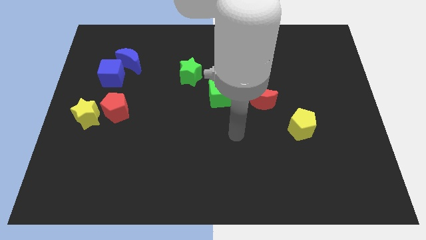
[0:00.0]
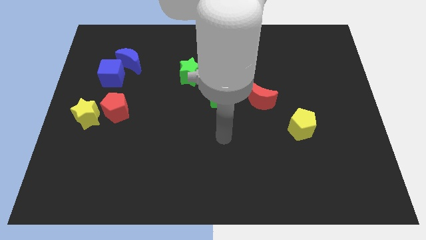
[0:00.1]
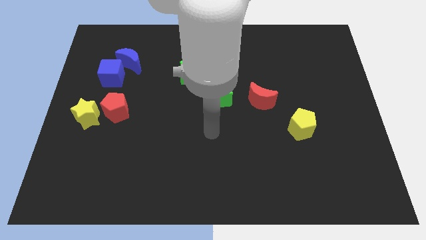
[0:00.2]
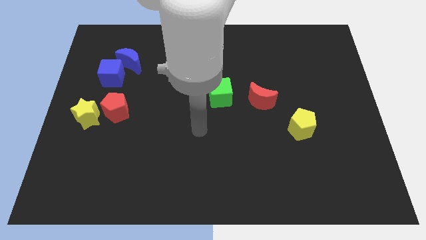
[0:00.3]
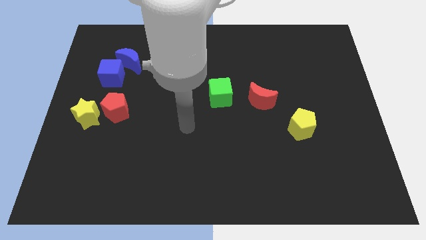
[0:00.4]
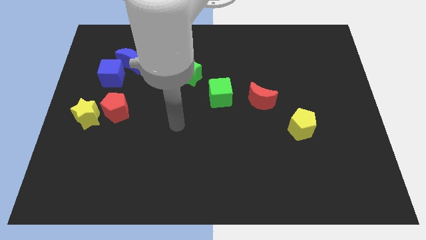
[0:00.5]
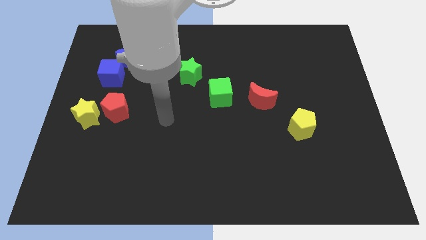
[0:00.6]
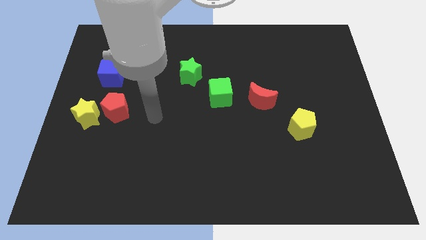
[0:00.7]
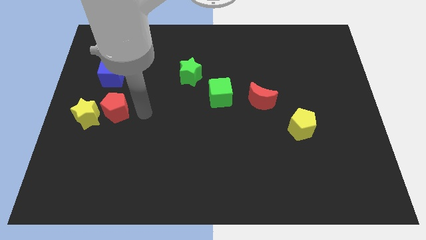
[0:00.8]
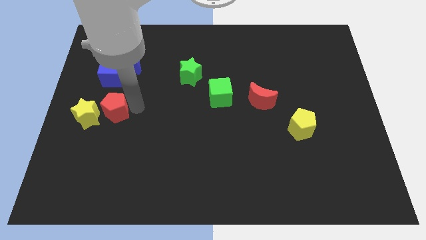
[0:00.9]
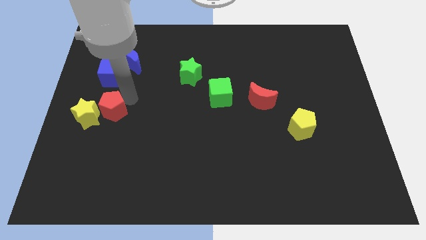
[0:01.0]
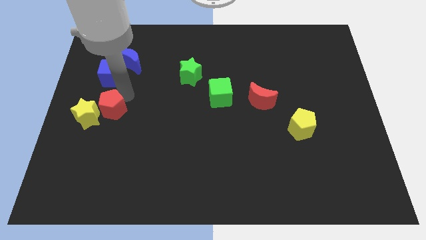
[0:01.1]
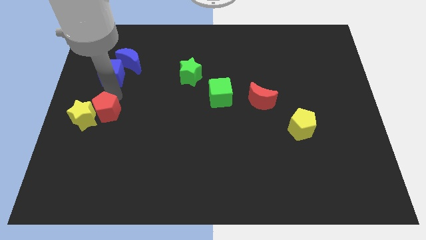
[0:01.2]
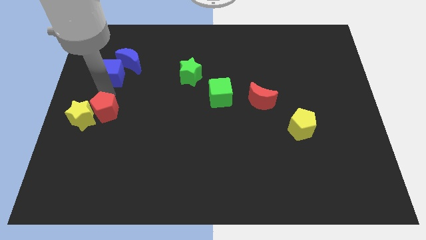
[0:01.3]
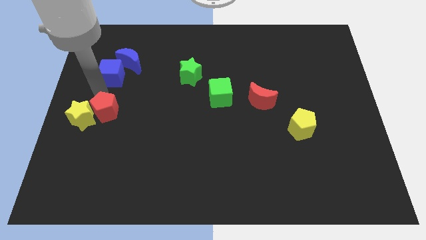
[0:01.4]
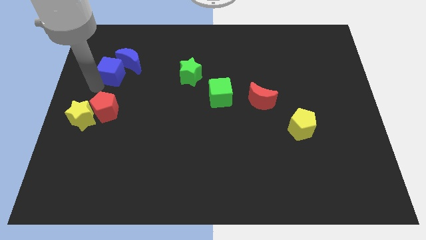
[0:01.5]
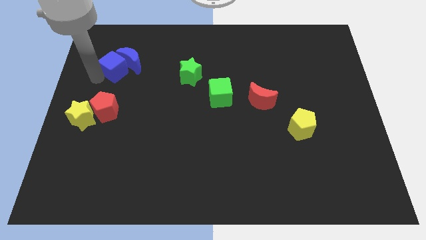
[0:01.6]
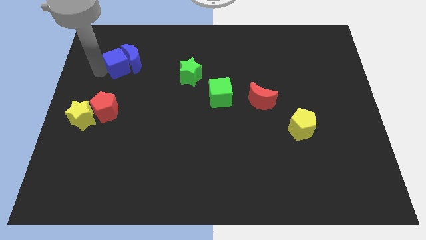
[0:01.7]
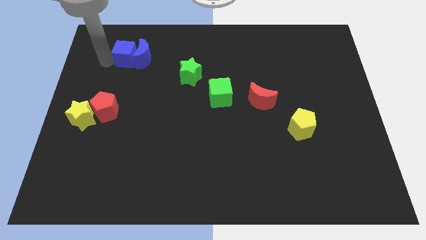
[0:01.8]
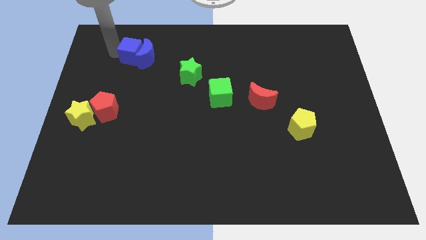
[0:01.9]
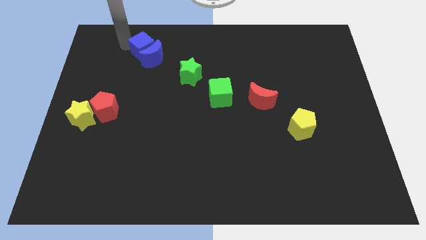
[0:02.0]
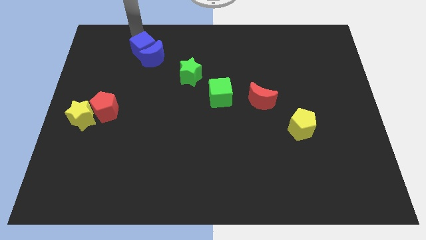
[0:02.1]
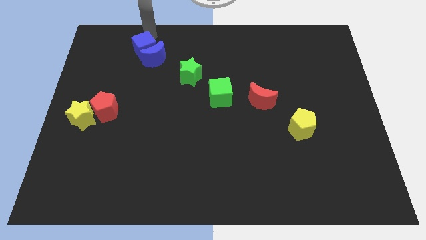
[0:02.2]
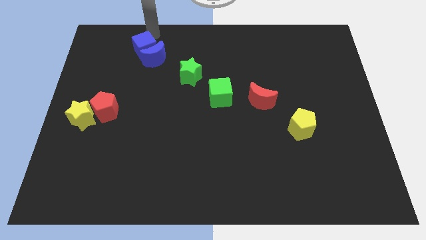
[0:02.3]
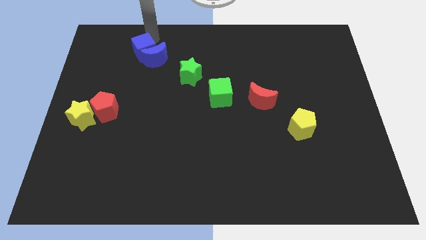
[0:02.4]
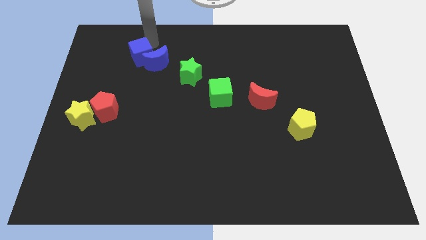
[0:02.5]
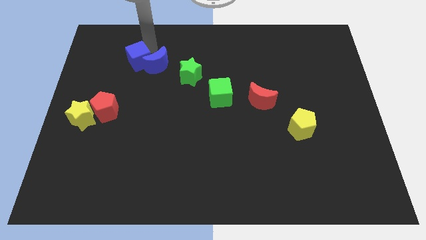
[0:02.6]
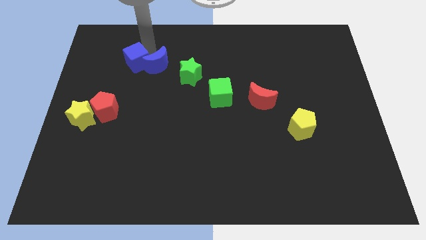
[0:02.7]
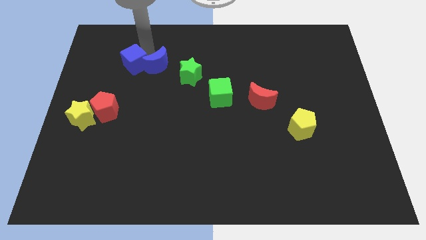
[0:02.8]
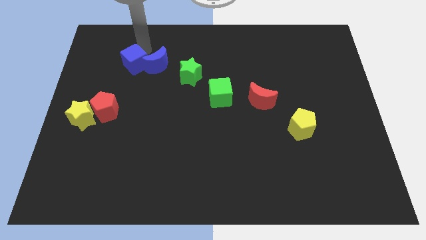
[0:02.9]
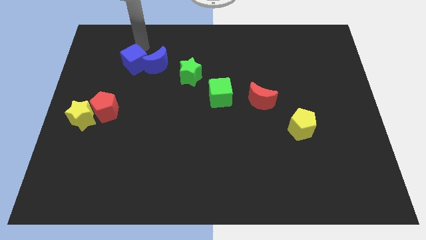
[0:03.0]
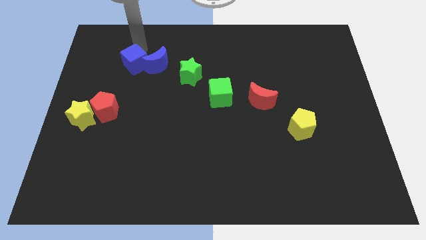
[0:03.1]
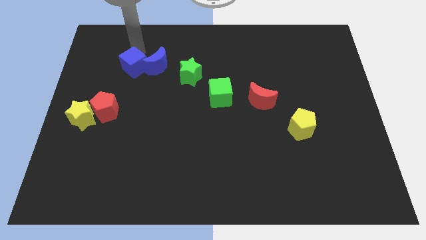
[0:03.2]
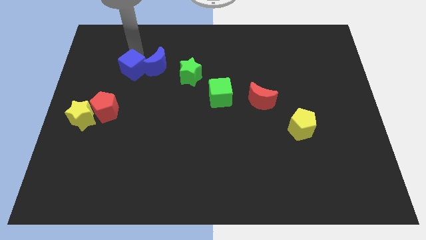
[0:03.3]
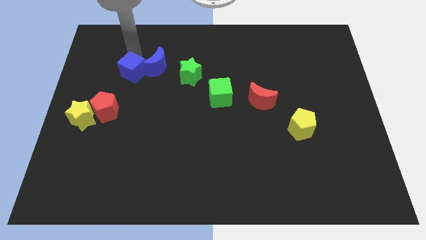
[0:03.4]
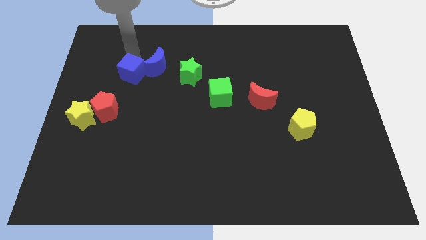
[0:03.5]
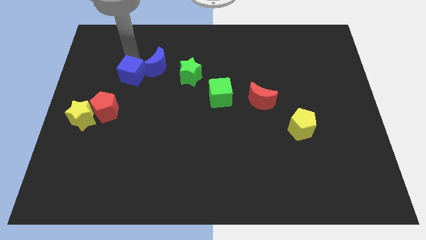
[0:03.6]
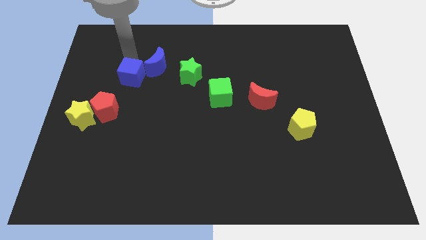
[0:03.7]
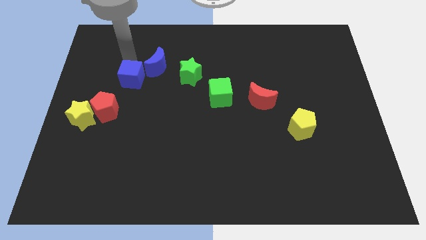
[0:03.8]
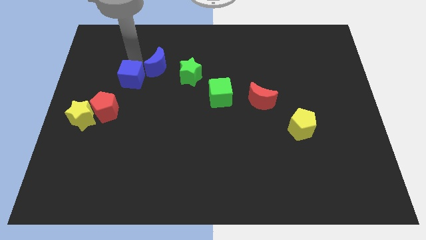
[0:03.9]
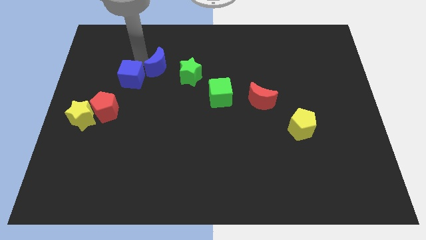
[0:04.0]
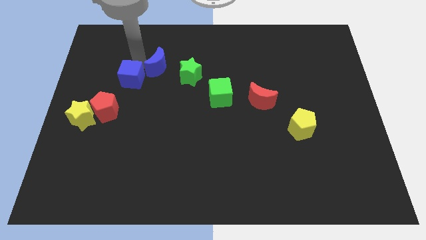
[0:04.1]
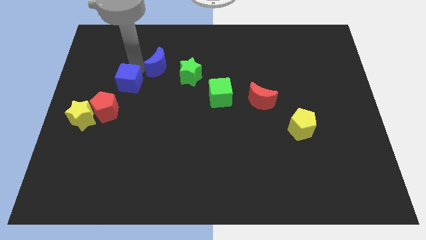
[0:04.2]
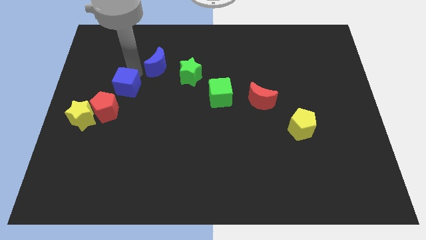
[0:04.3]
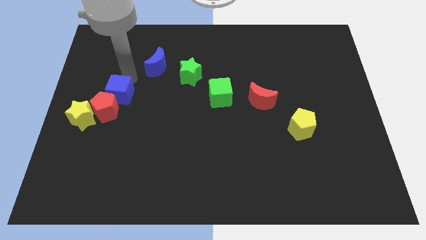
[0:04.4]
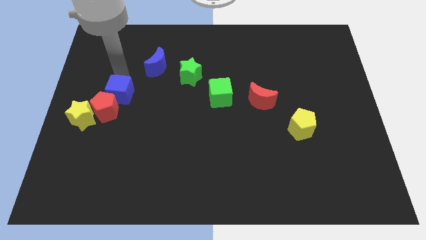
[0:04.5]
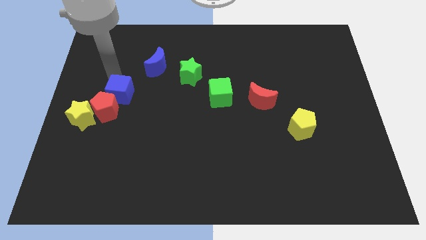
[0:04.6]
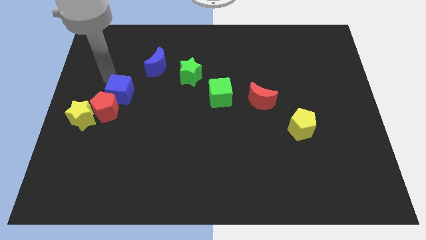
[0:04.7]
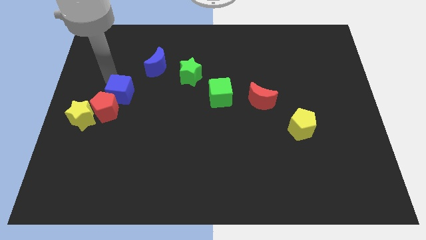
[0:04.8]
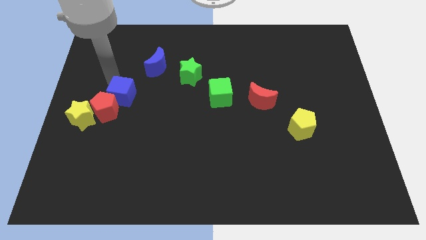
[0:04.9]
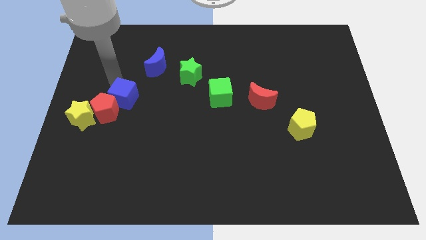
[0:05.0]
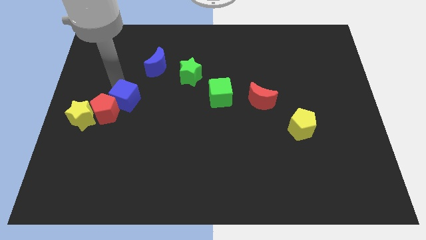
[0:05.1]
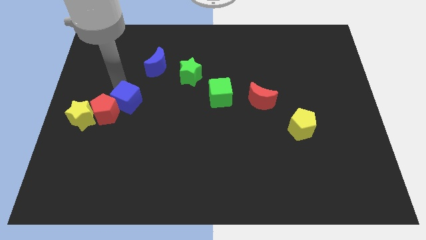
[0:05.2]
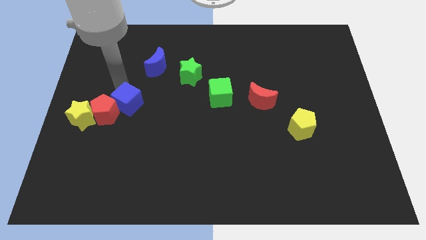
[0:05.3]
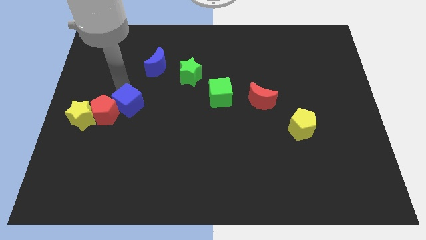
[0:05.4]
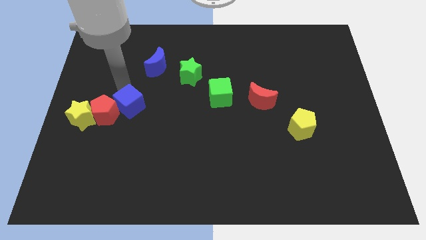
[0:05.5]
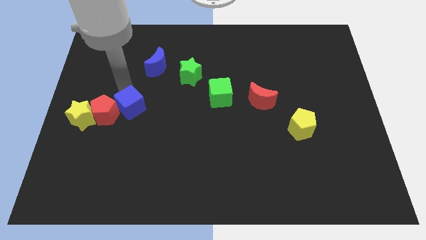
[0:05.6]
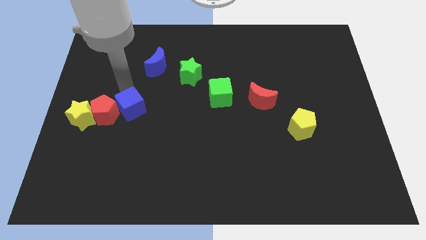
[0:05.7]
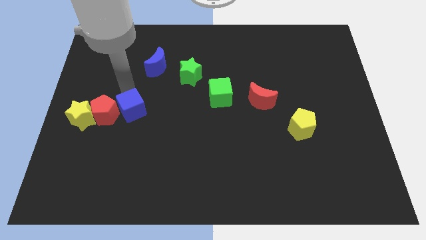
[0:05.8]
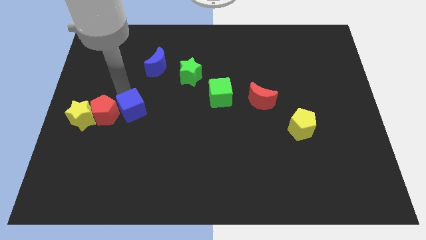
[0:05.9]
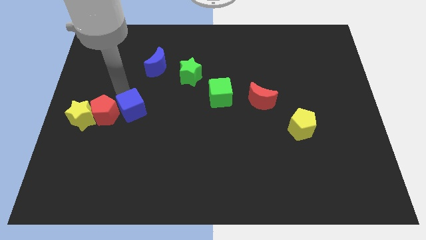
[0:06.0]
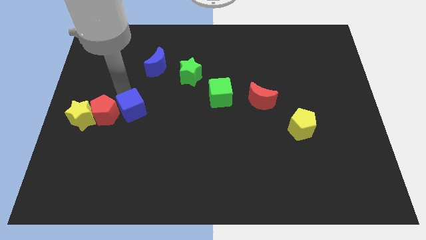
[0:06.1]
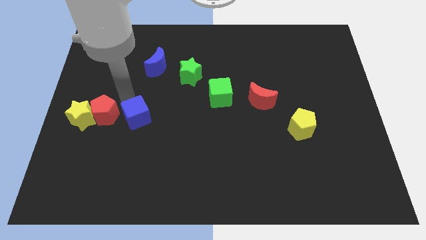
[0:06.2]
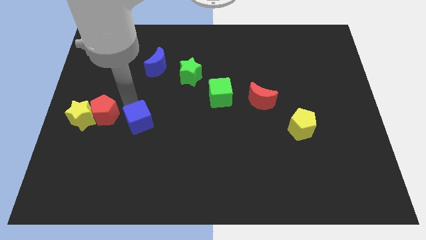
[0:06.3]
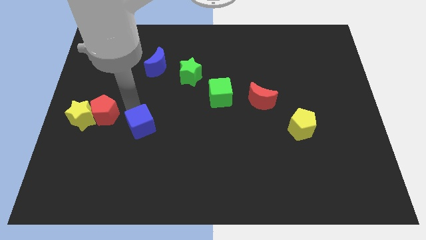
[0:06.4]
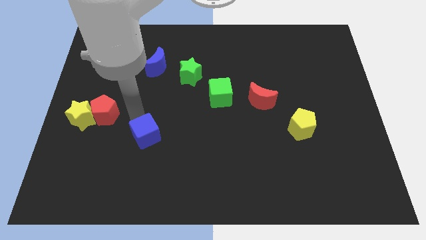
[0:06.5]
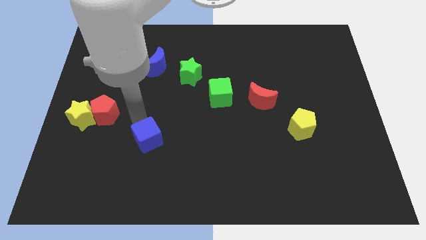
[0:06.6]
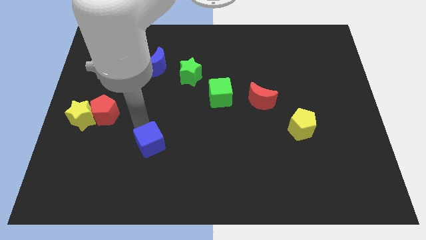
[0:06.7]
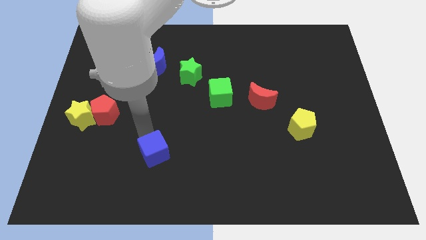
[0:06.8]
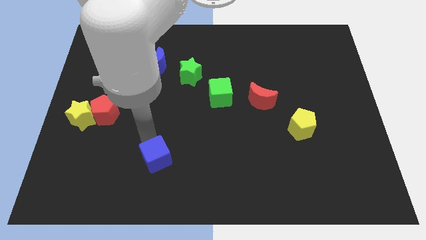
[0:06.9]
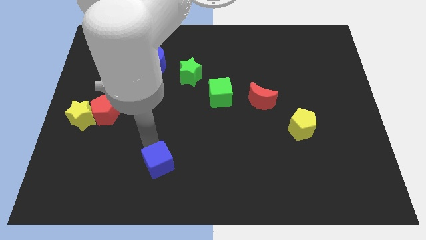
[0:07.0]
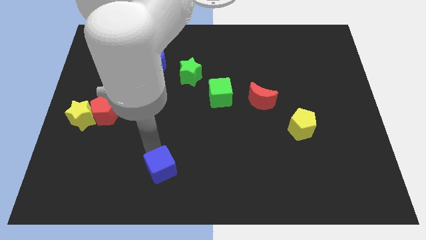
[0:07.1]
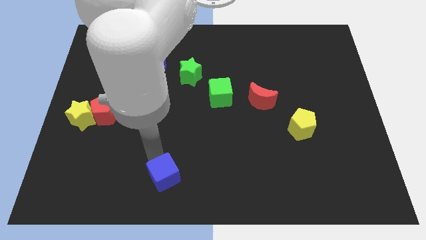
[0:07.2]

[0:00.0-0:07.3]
push the blue cube to the bottom side
